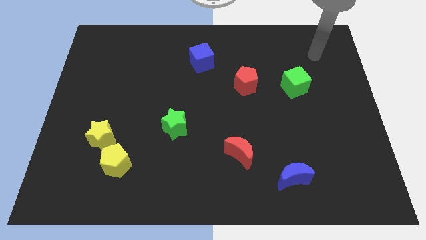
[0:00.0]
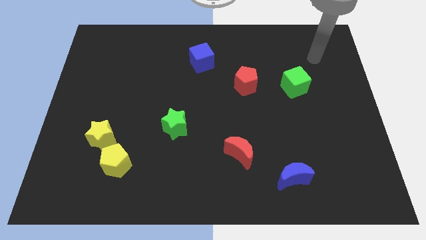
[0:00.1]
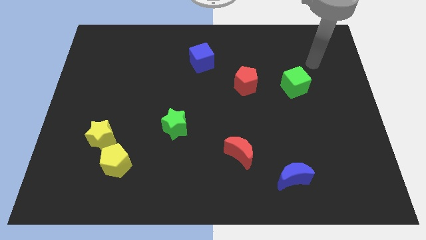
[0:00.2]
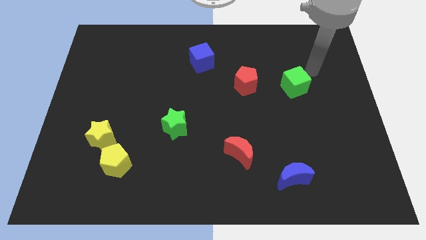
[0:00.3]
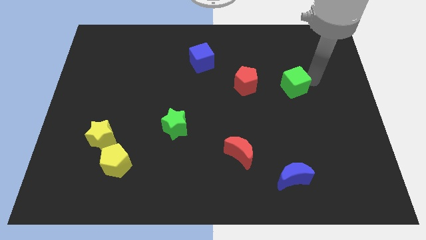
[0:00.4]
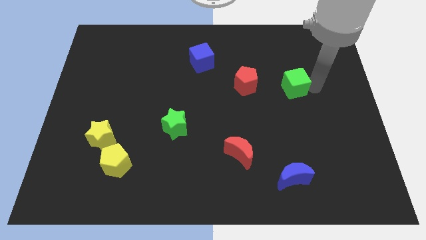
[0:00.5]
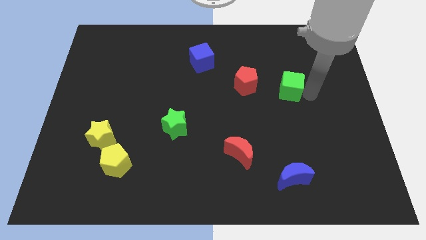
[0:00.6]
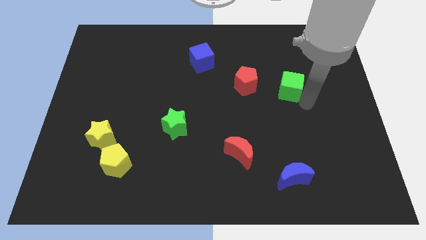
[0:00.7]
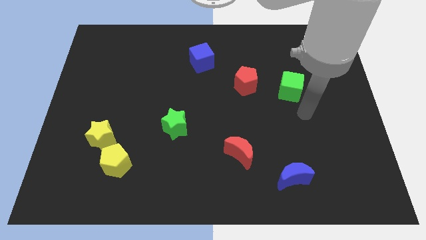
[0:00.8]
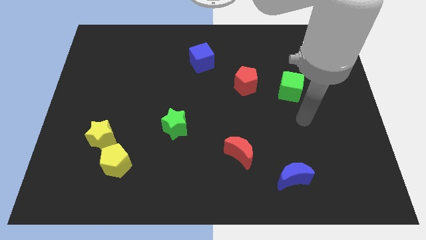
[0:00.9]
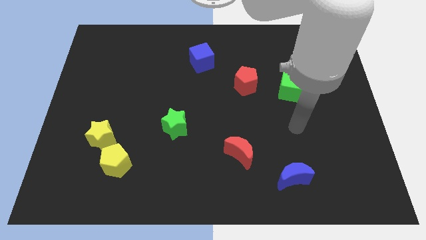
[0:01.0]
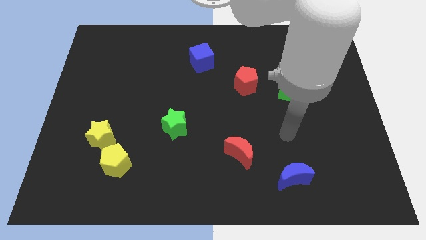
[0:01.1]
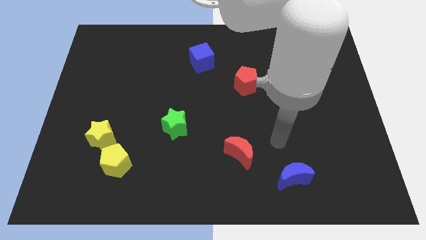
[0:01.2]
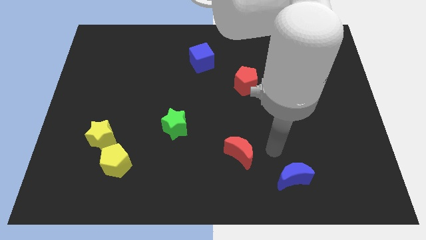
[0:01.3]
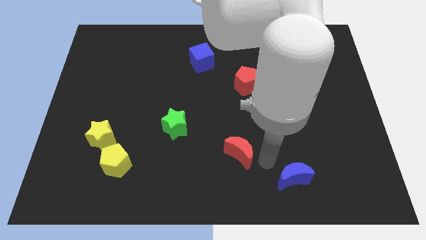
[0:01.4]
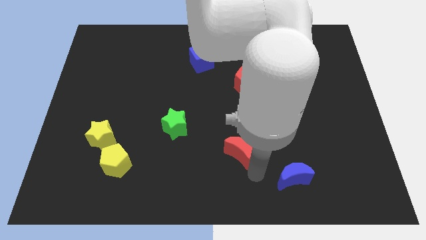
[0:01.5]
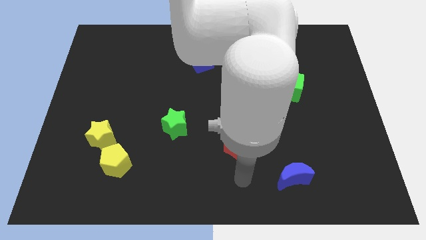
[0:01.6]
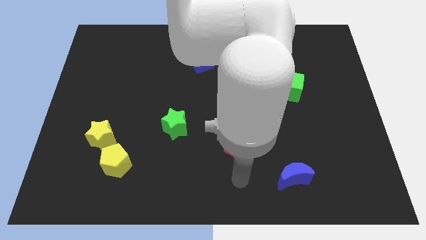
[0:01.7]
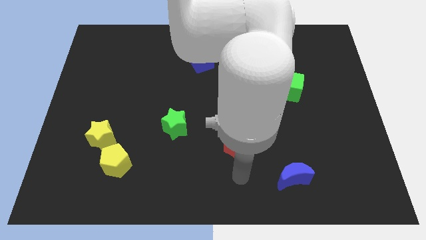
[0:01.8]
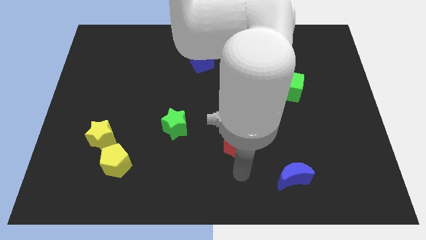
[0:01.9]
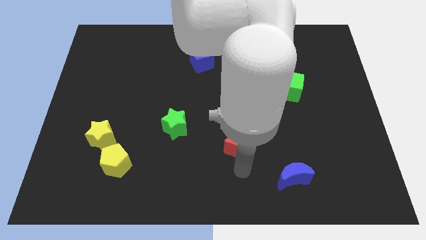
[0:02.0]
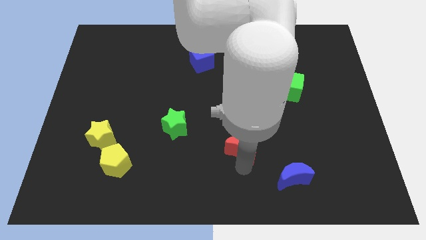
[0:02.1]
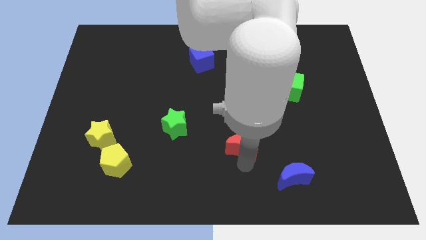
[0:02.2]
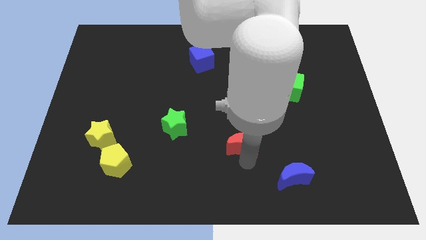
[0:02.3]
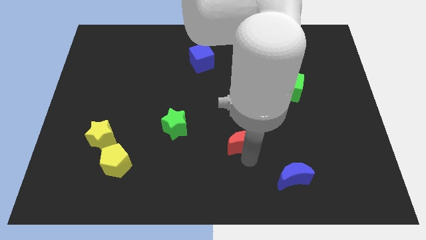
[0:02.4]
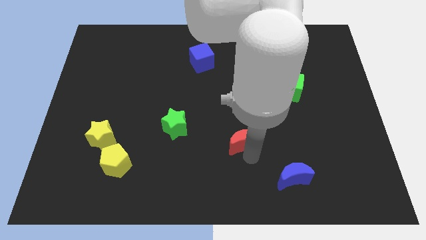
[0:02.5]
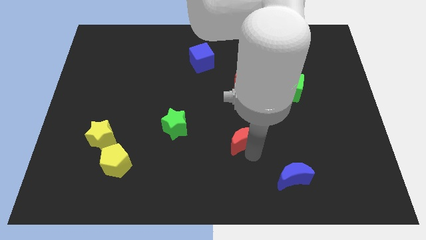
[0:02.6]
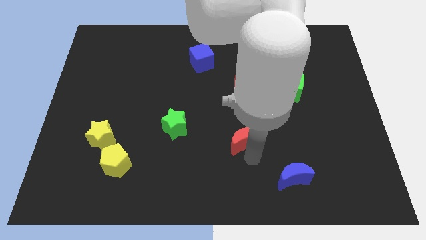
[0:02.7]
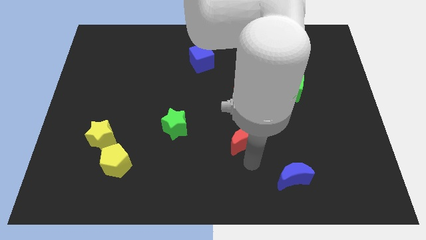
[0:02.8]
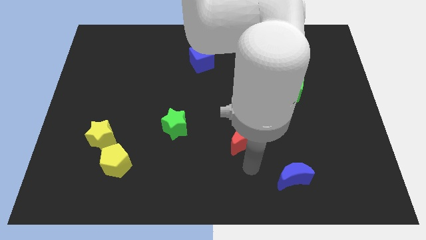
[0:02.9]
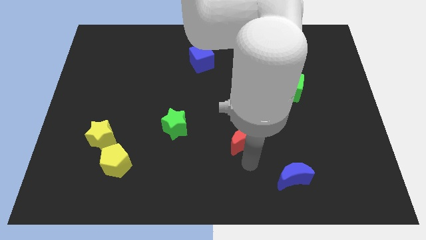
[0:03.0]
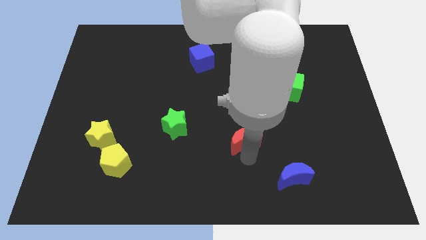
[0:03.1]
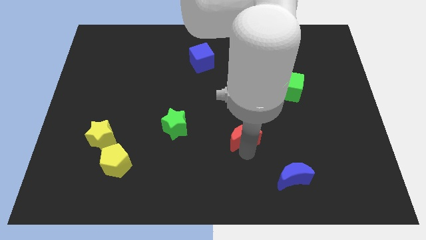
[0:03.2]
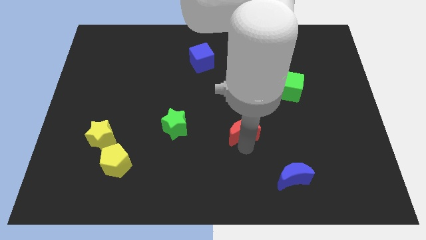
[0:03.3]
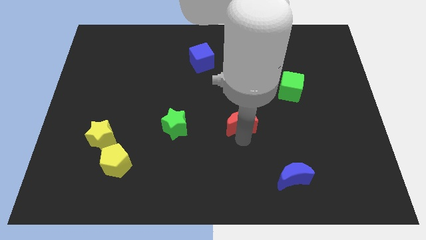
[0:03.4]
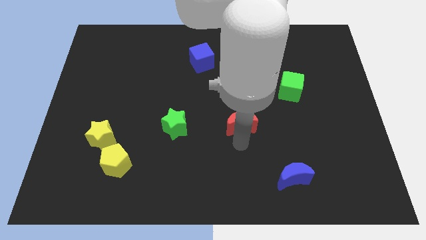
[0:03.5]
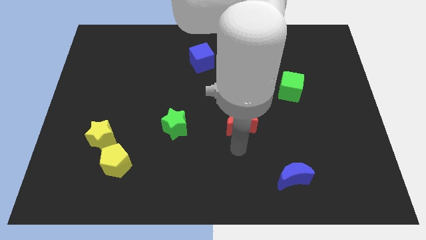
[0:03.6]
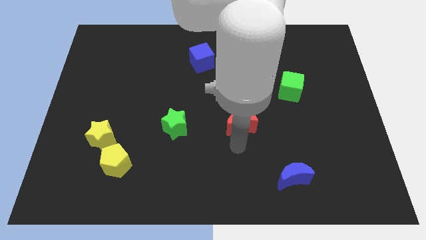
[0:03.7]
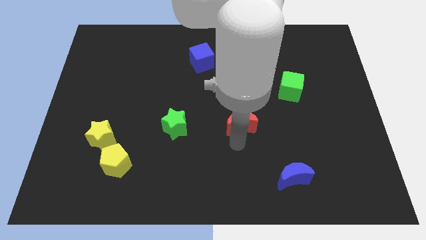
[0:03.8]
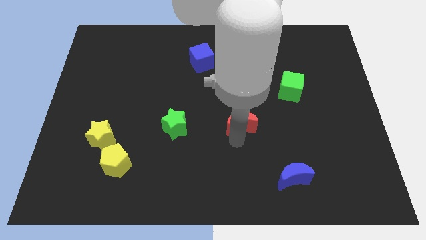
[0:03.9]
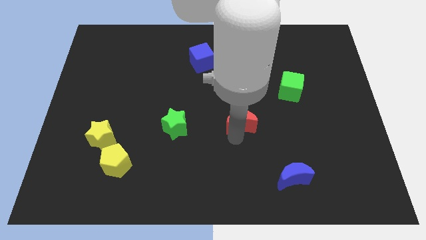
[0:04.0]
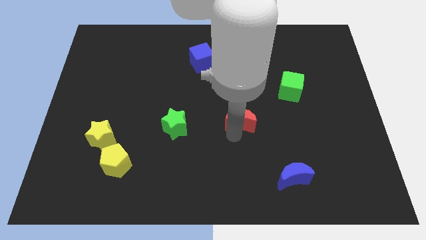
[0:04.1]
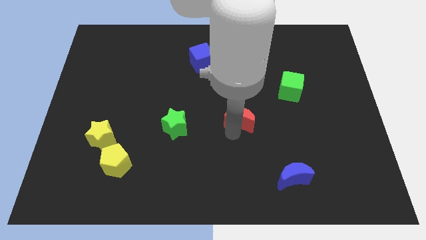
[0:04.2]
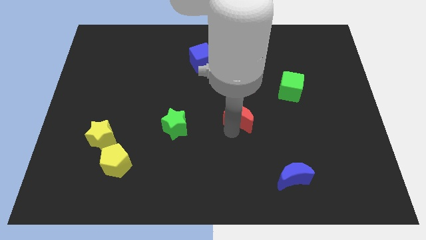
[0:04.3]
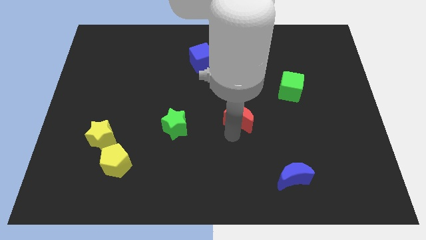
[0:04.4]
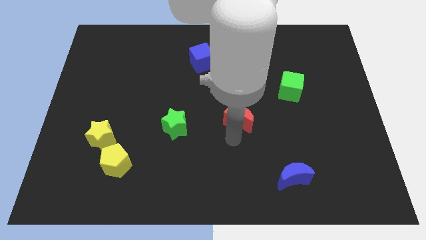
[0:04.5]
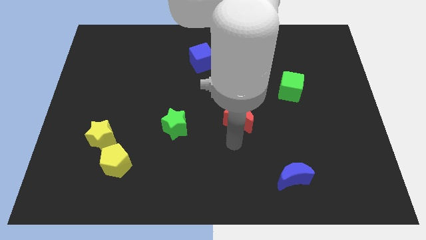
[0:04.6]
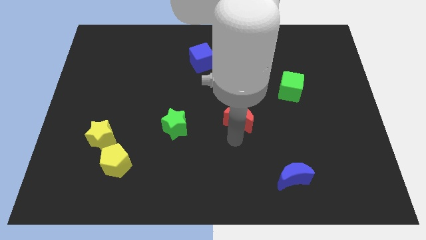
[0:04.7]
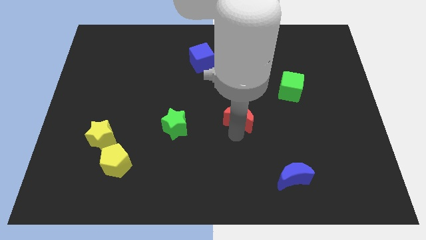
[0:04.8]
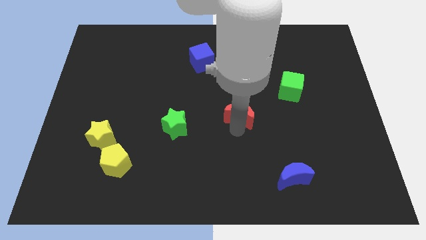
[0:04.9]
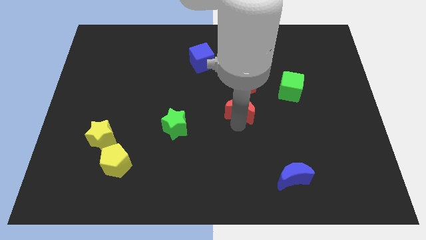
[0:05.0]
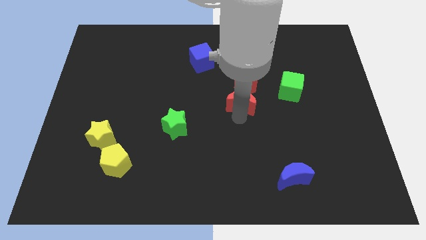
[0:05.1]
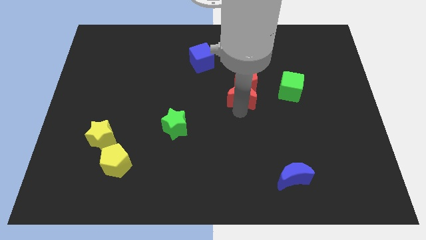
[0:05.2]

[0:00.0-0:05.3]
move the red moon close to the red pentagon

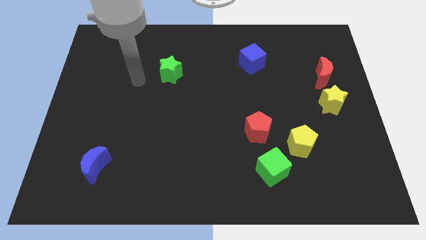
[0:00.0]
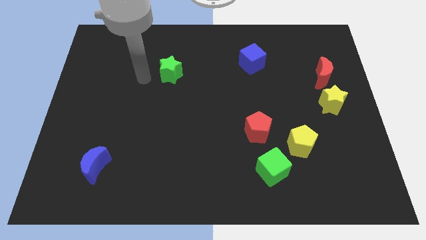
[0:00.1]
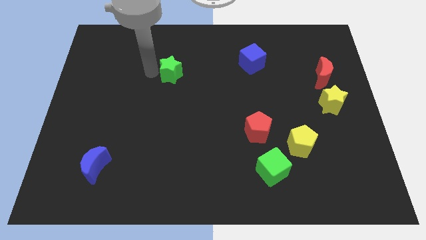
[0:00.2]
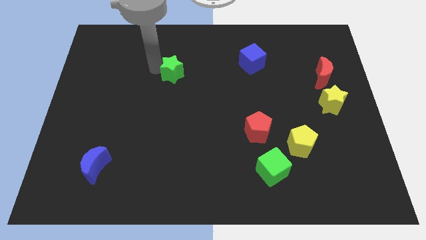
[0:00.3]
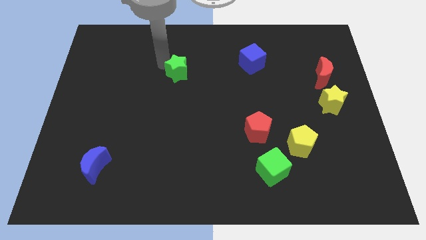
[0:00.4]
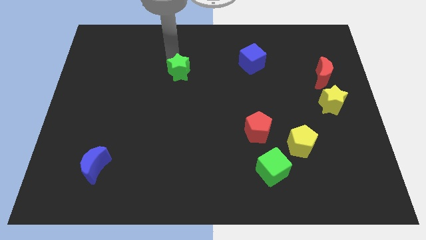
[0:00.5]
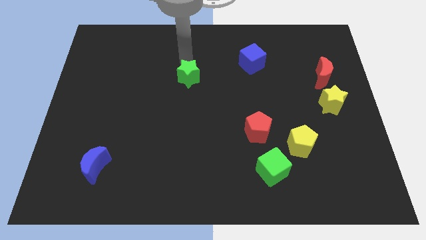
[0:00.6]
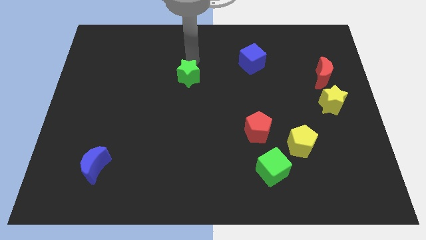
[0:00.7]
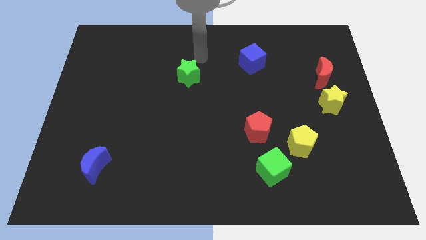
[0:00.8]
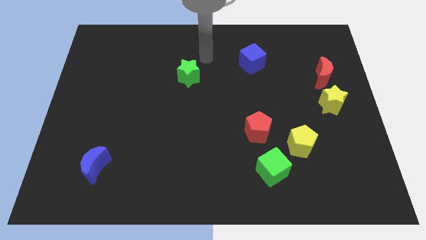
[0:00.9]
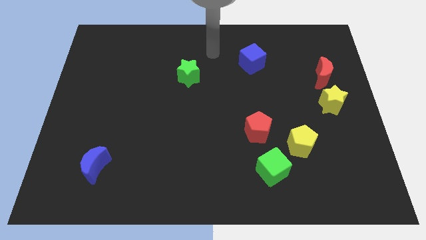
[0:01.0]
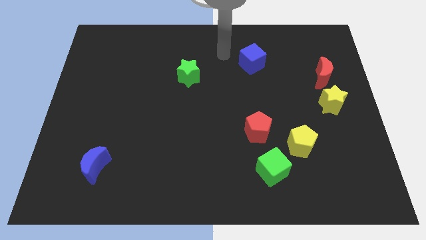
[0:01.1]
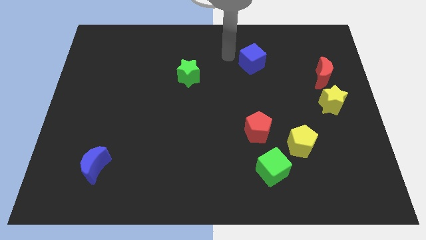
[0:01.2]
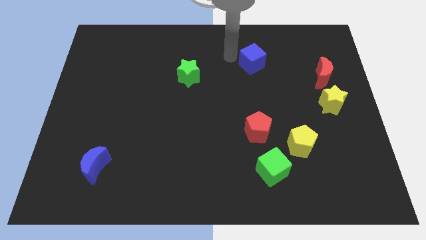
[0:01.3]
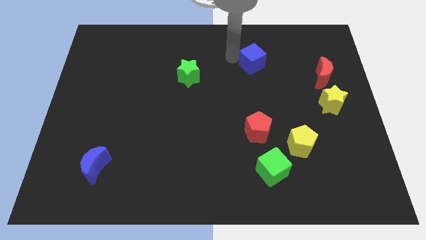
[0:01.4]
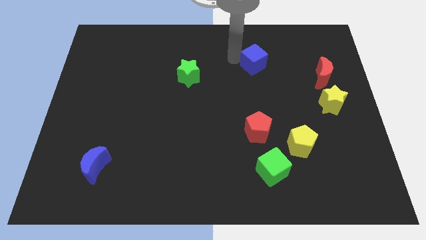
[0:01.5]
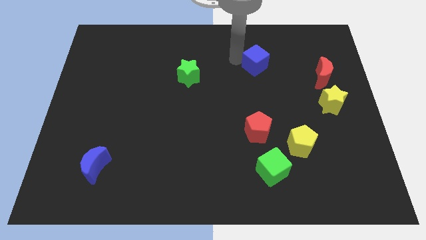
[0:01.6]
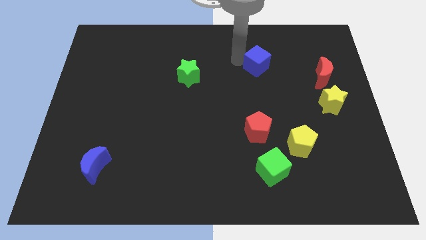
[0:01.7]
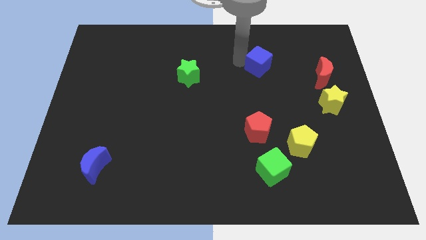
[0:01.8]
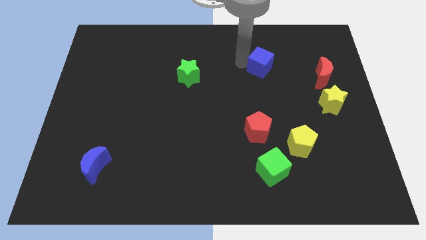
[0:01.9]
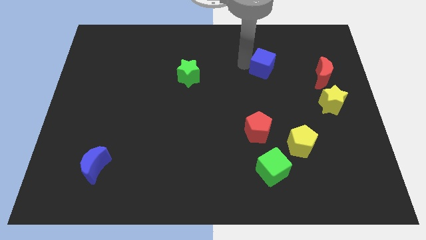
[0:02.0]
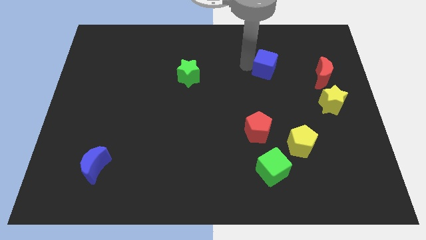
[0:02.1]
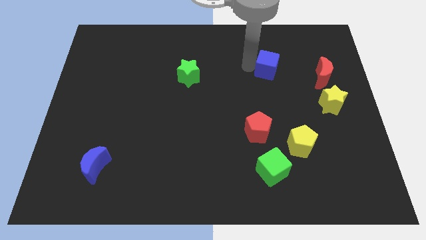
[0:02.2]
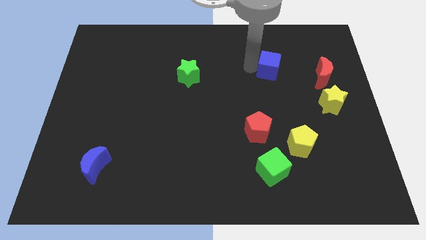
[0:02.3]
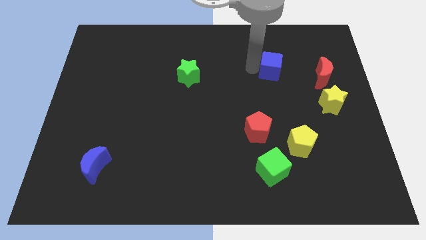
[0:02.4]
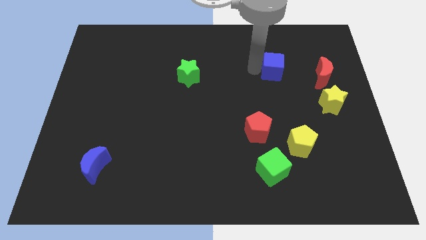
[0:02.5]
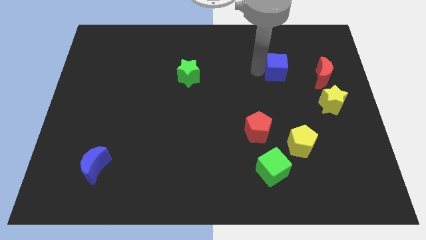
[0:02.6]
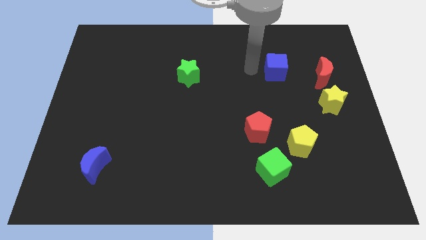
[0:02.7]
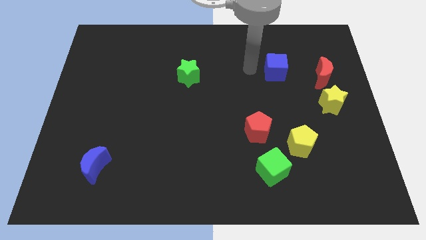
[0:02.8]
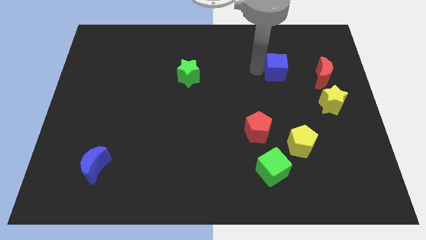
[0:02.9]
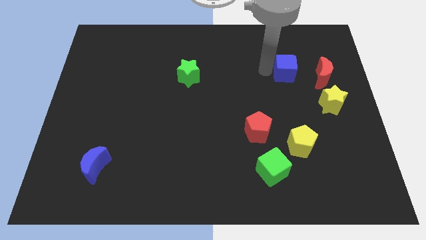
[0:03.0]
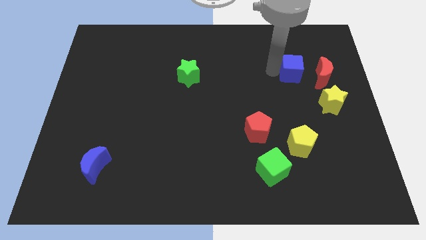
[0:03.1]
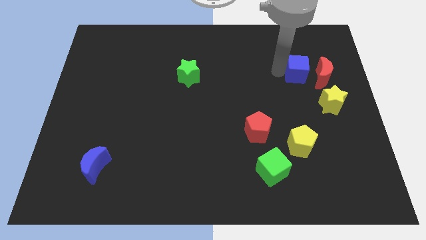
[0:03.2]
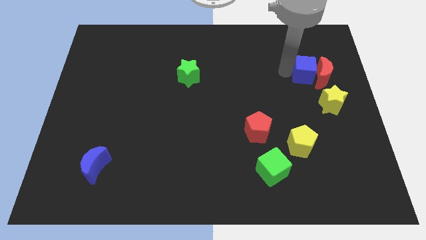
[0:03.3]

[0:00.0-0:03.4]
slide the blue cube close to the red moon
